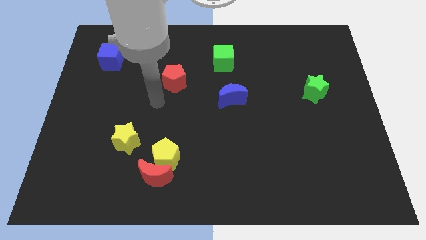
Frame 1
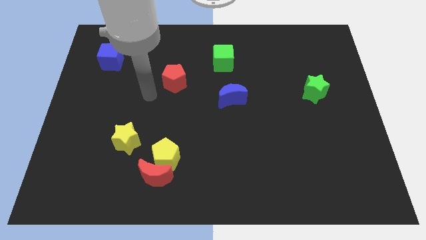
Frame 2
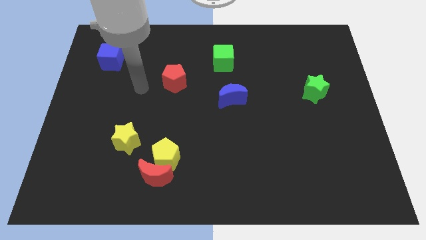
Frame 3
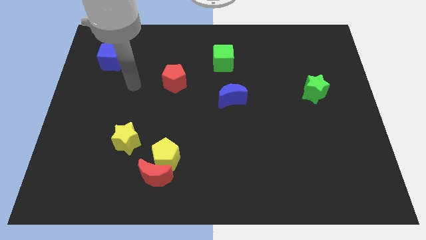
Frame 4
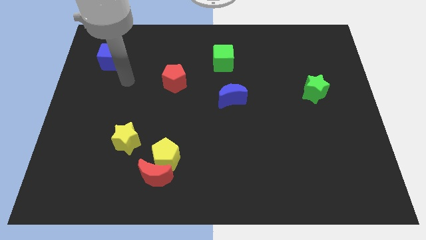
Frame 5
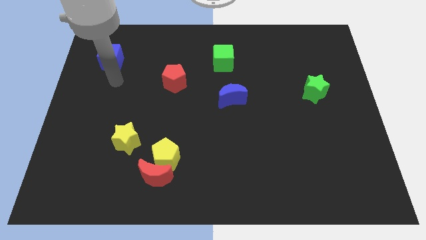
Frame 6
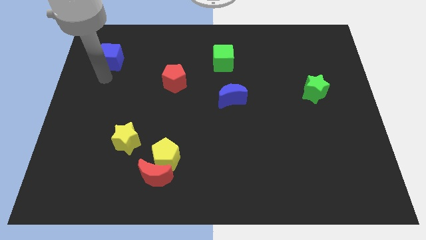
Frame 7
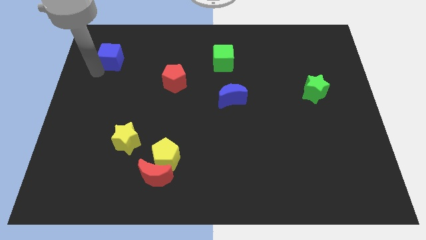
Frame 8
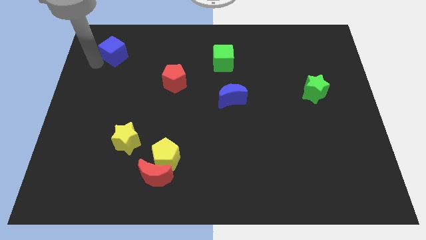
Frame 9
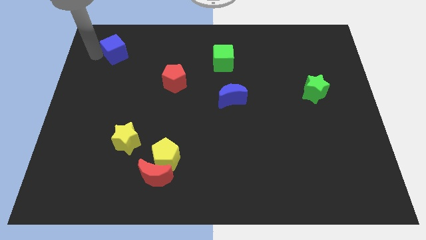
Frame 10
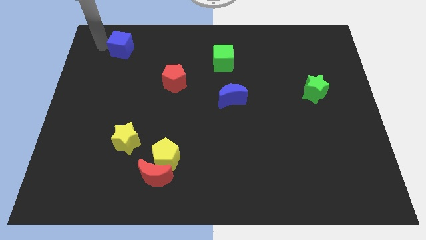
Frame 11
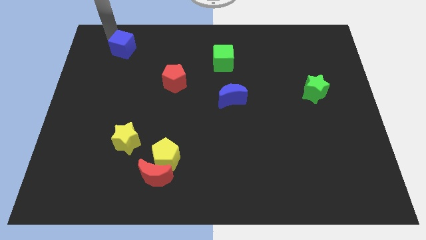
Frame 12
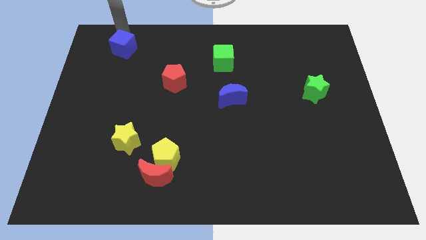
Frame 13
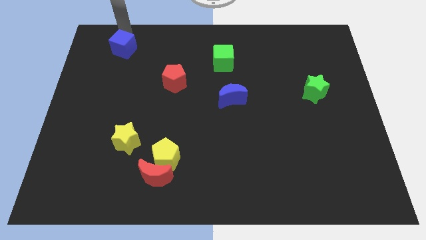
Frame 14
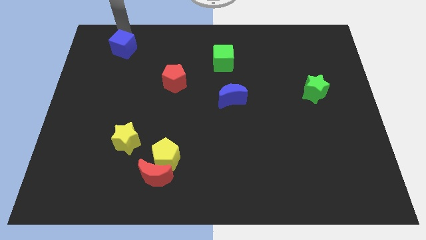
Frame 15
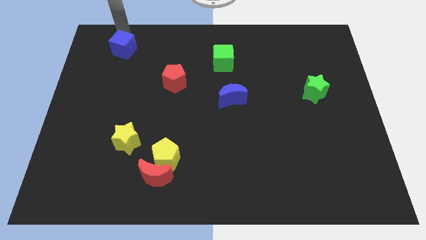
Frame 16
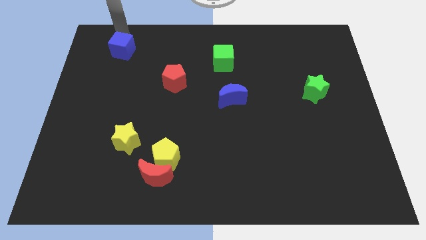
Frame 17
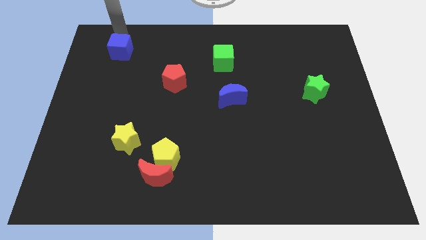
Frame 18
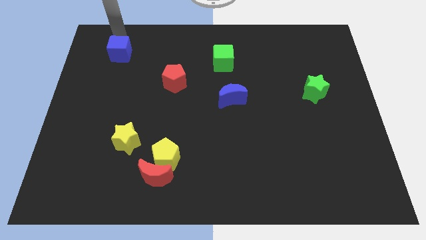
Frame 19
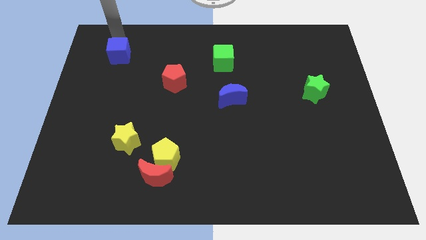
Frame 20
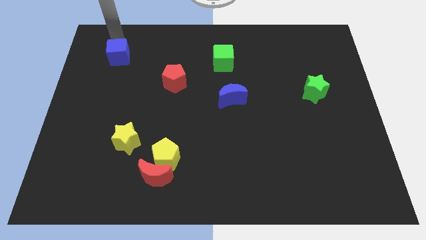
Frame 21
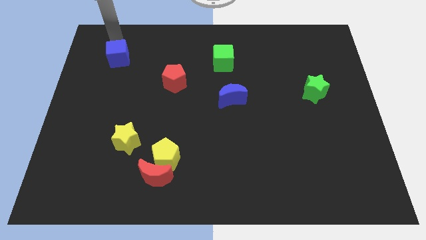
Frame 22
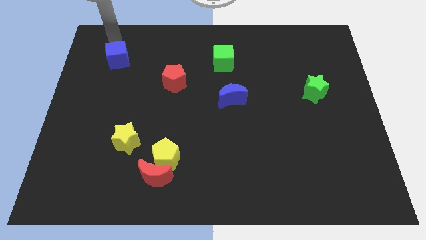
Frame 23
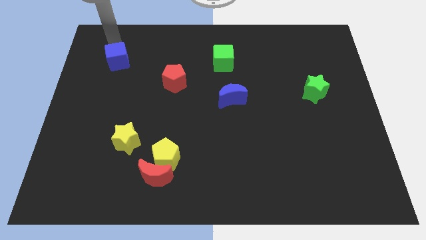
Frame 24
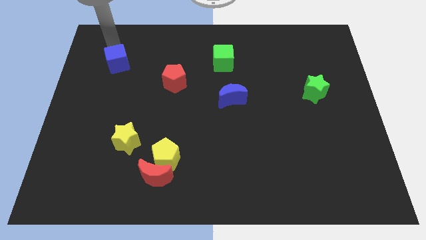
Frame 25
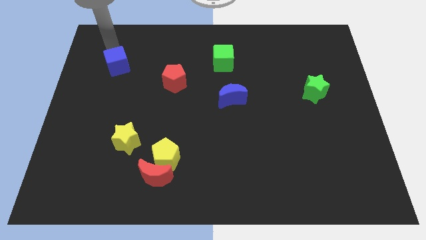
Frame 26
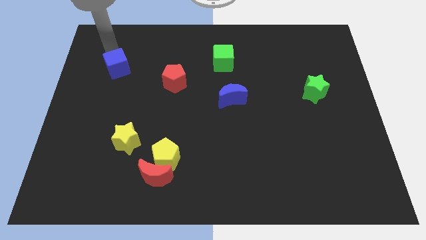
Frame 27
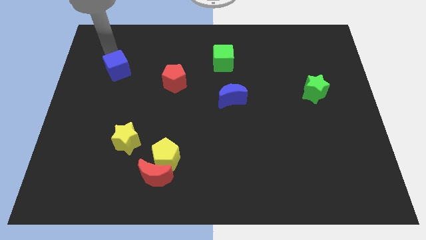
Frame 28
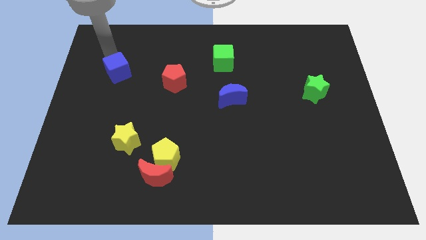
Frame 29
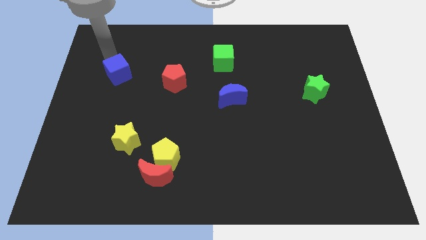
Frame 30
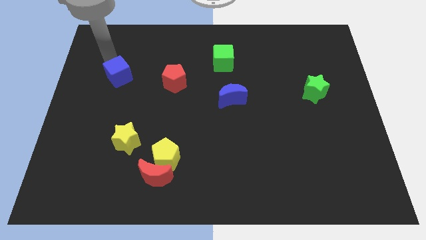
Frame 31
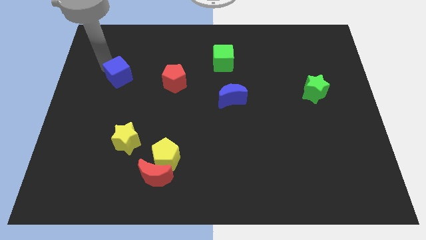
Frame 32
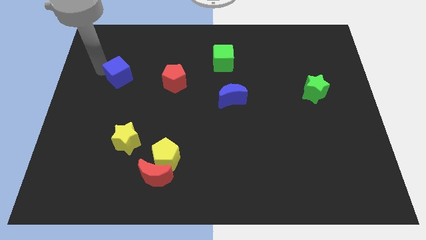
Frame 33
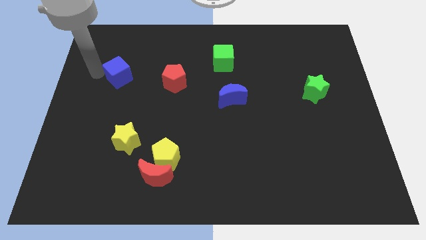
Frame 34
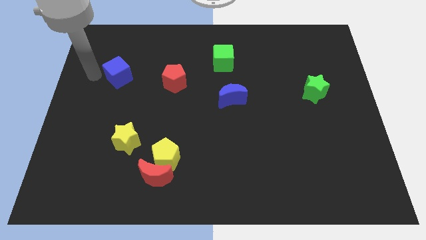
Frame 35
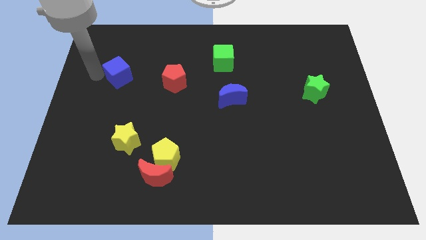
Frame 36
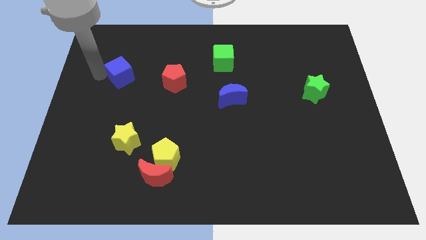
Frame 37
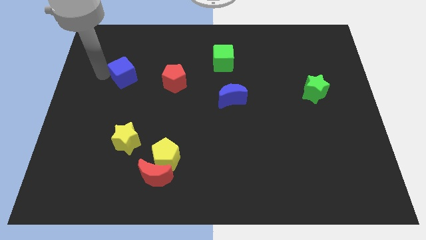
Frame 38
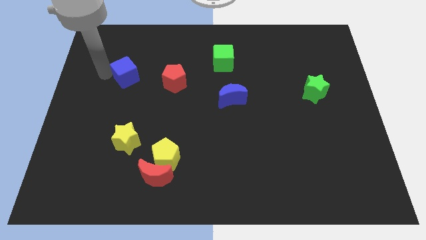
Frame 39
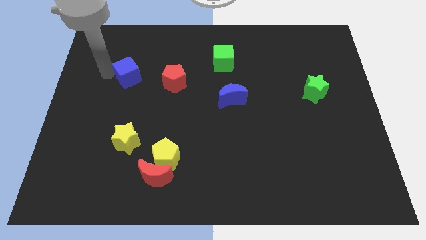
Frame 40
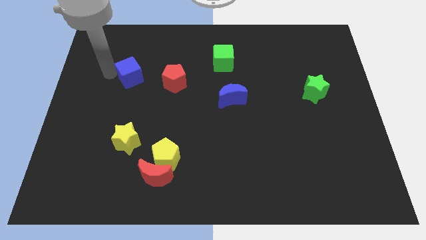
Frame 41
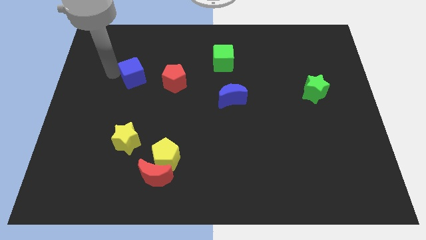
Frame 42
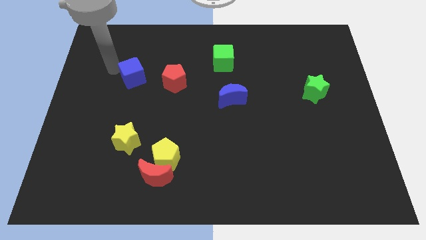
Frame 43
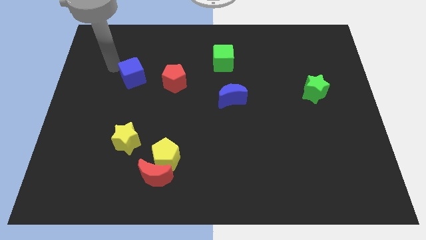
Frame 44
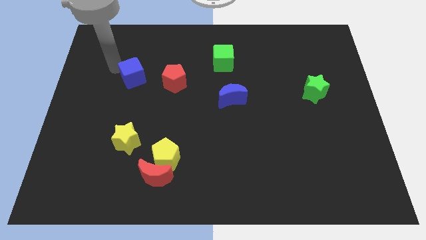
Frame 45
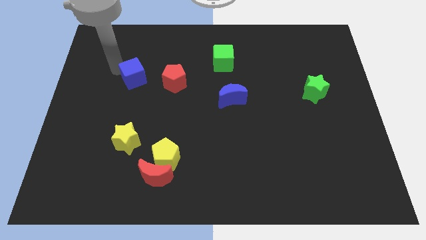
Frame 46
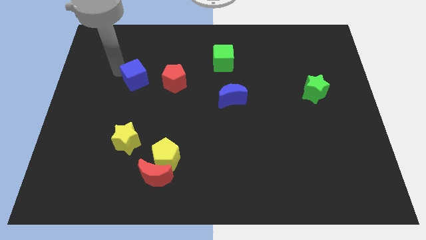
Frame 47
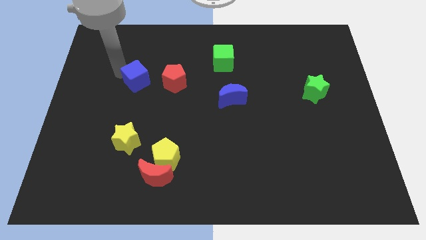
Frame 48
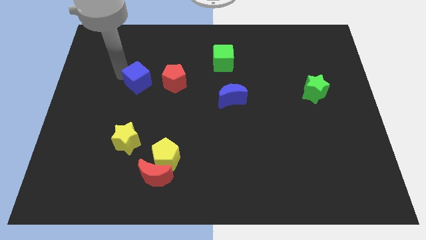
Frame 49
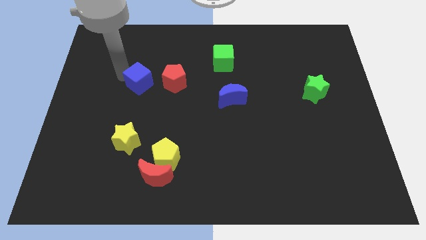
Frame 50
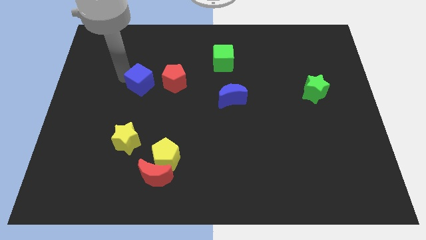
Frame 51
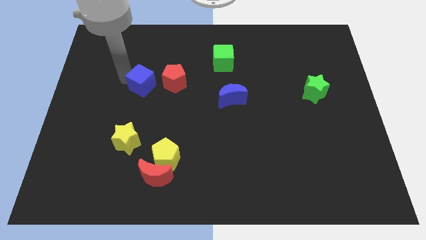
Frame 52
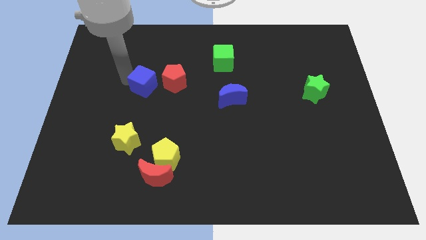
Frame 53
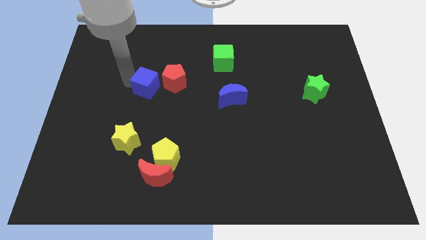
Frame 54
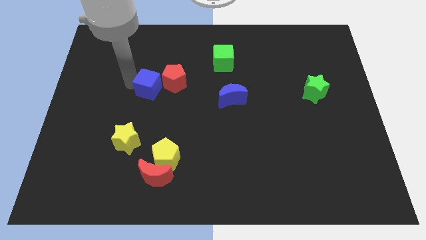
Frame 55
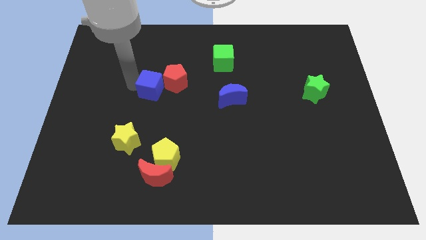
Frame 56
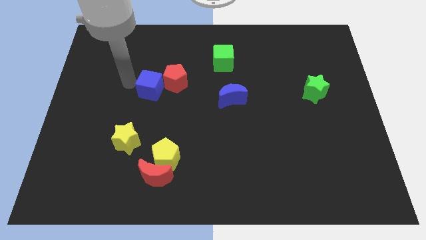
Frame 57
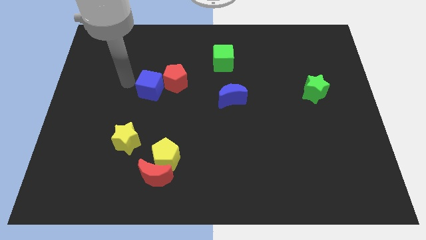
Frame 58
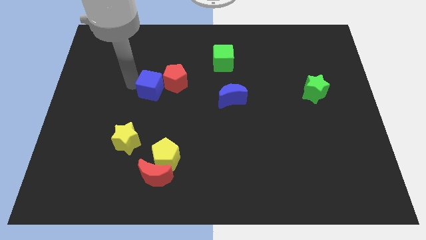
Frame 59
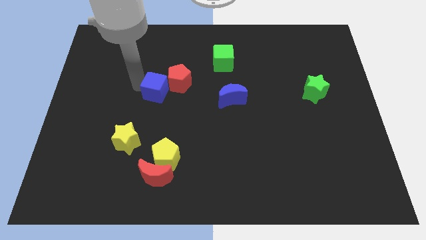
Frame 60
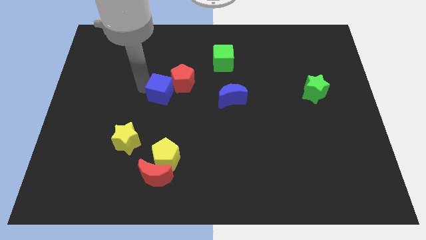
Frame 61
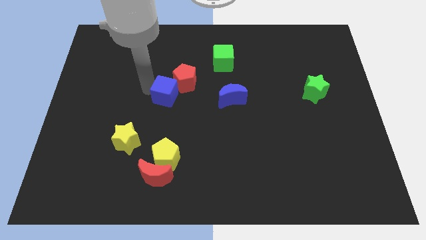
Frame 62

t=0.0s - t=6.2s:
put the blue cube to the middle
